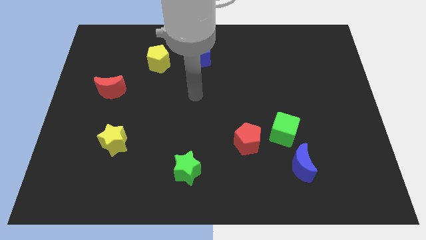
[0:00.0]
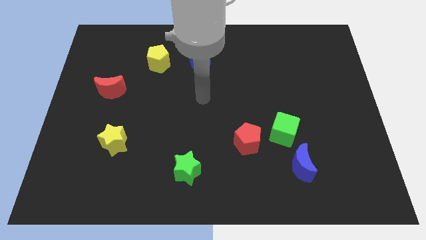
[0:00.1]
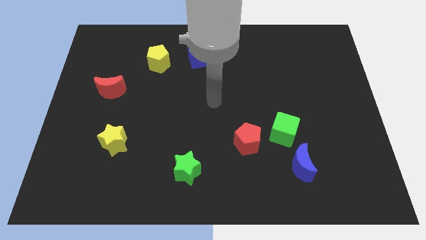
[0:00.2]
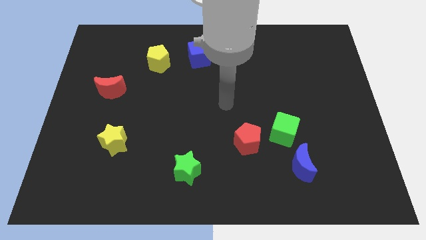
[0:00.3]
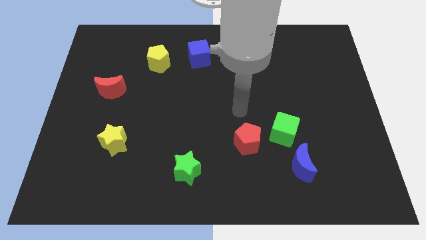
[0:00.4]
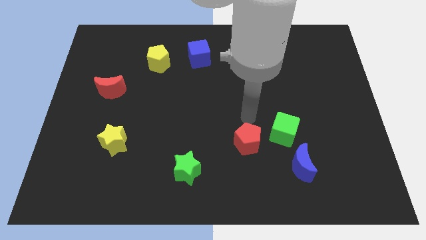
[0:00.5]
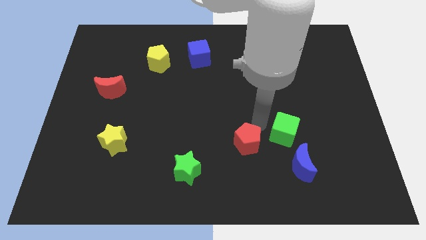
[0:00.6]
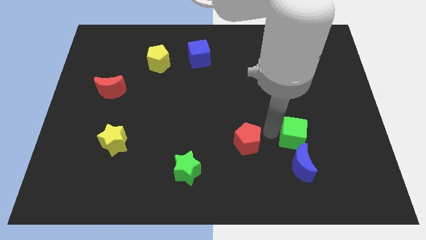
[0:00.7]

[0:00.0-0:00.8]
pull the red pentagon apart from the green cube

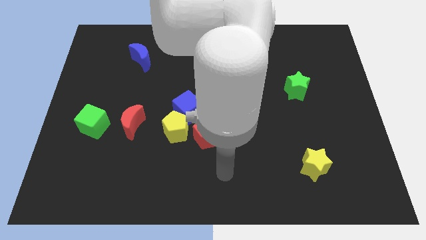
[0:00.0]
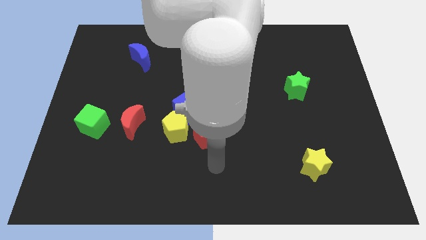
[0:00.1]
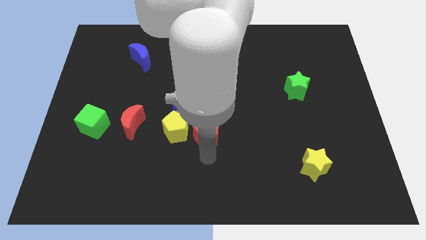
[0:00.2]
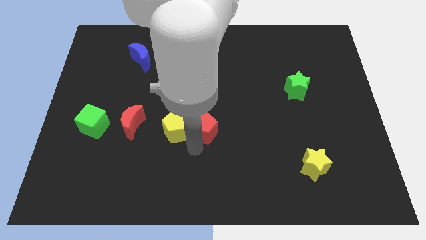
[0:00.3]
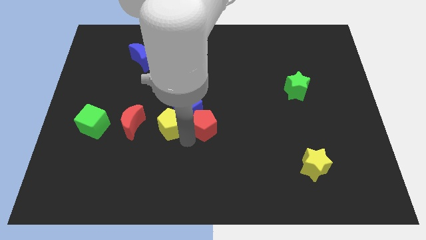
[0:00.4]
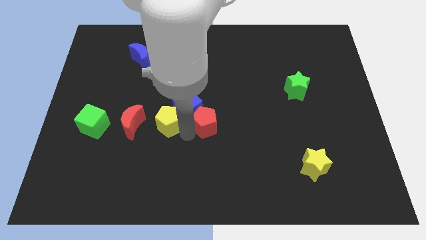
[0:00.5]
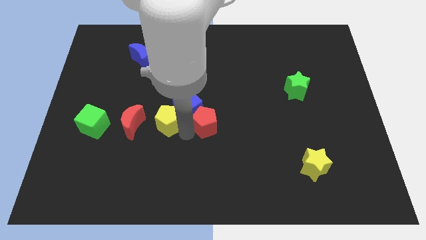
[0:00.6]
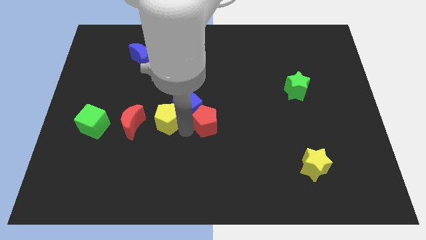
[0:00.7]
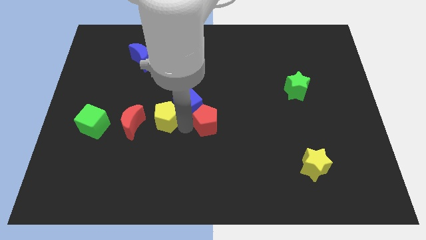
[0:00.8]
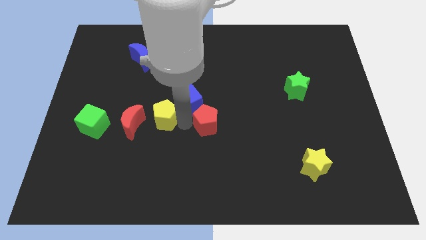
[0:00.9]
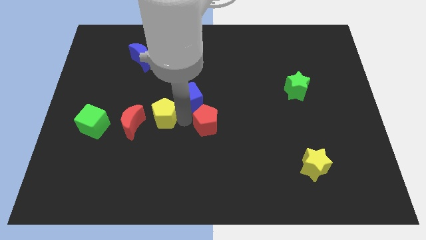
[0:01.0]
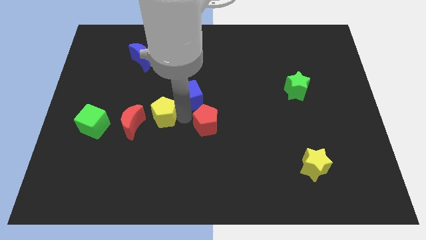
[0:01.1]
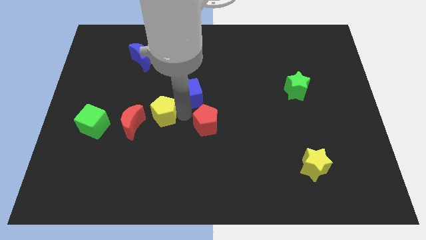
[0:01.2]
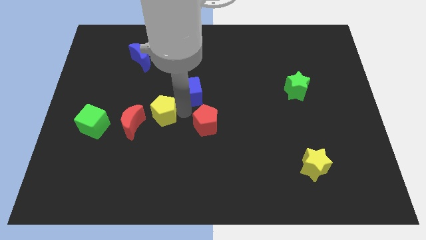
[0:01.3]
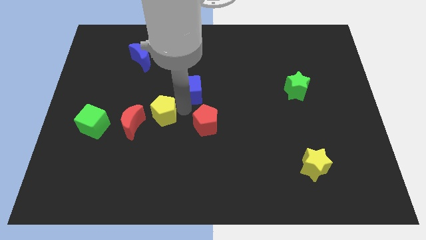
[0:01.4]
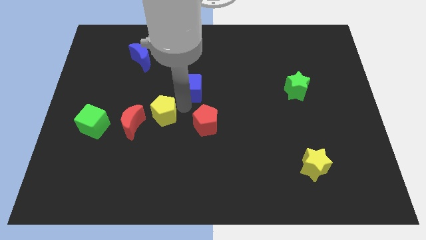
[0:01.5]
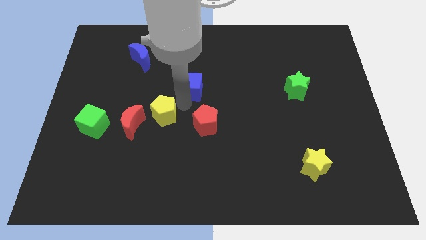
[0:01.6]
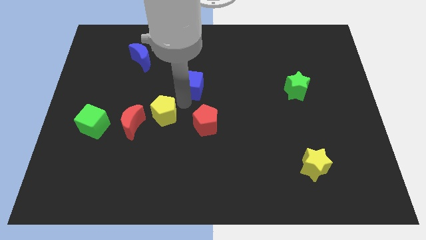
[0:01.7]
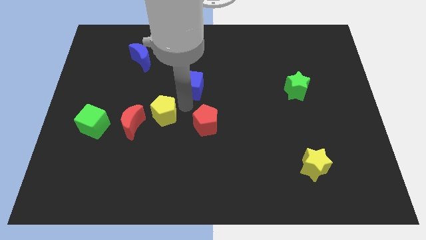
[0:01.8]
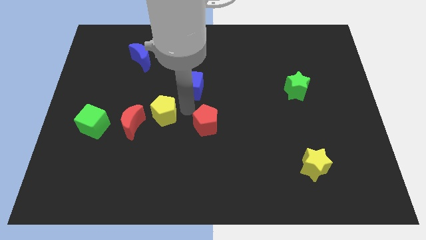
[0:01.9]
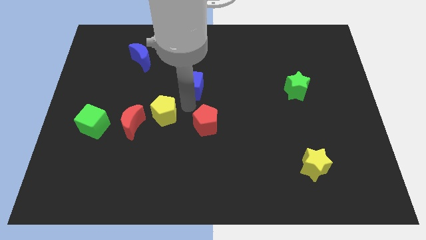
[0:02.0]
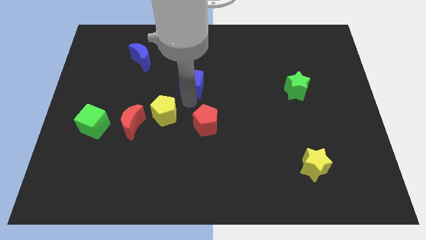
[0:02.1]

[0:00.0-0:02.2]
move the blue cube away from the yellow pentagon and red pentagon

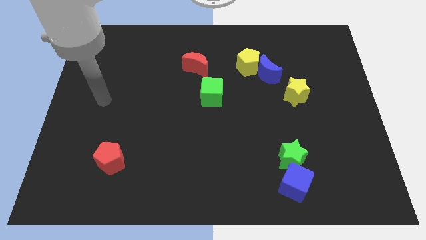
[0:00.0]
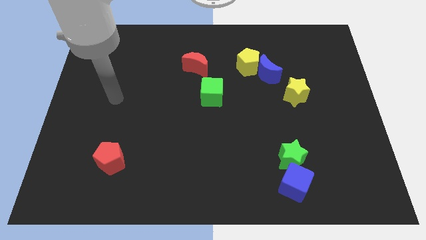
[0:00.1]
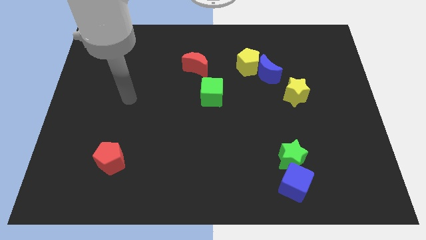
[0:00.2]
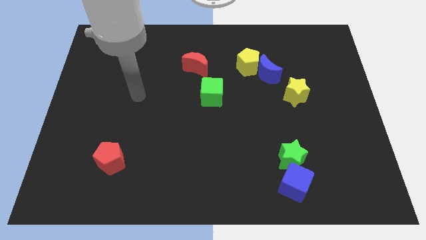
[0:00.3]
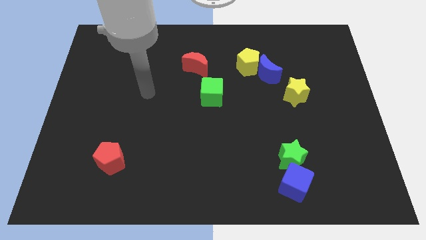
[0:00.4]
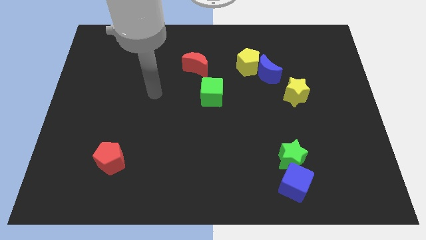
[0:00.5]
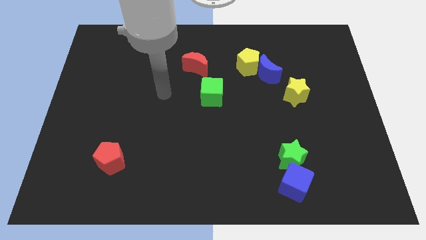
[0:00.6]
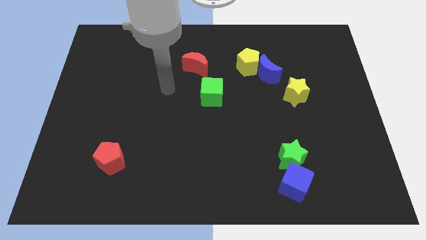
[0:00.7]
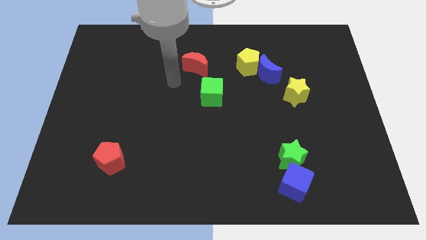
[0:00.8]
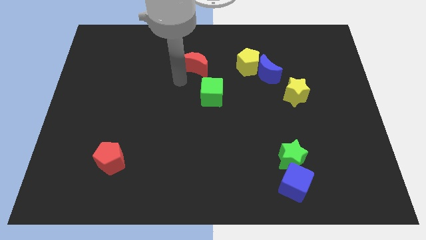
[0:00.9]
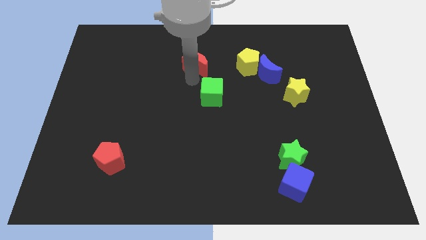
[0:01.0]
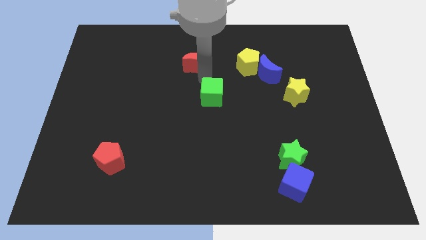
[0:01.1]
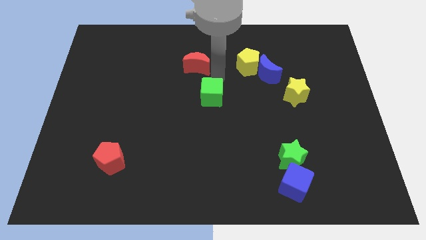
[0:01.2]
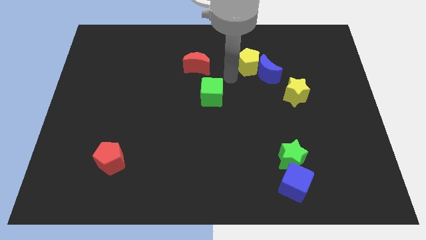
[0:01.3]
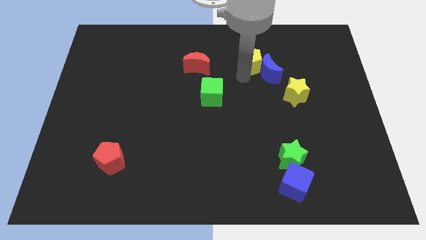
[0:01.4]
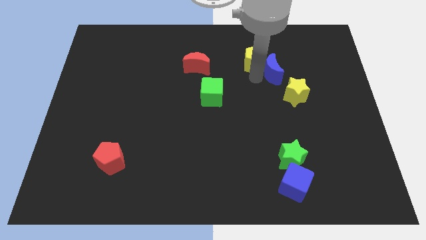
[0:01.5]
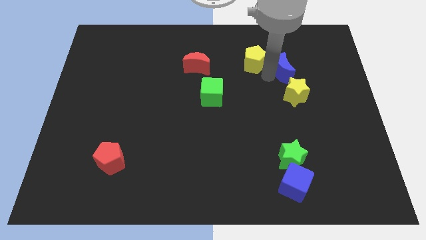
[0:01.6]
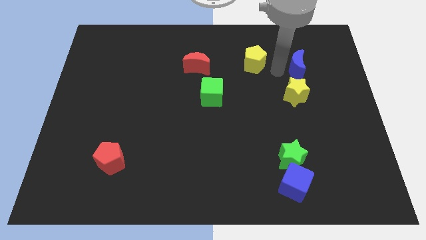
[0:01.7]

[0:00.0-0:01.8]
pull the yellow pentagon apart from the blue moon

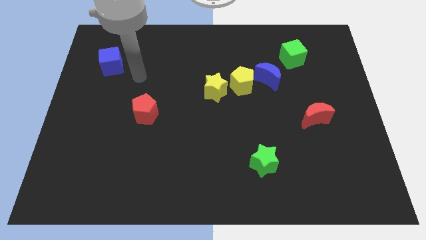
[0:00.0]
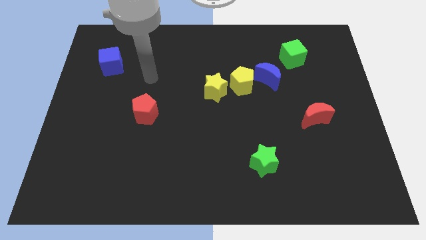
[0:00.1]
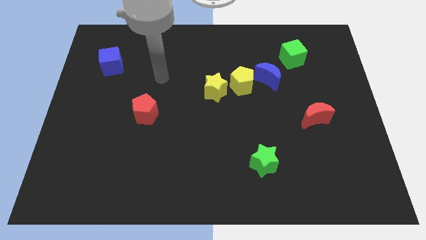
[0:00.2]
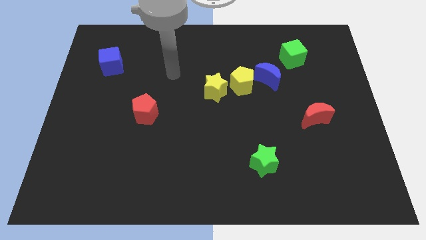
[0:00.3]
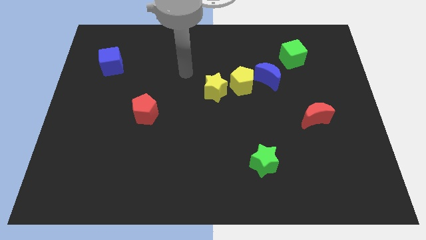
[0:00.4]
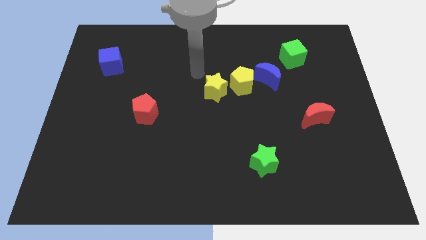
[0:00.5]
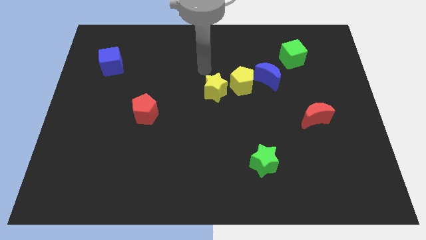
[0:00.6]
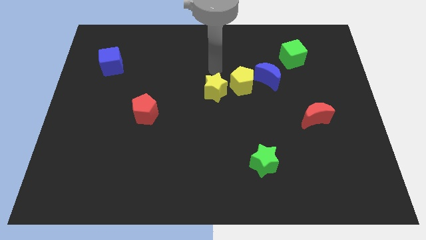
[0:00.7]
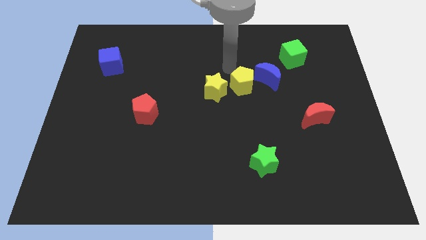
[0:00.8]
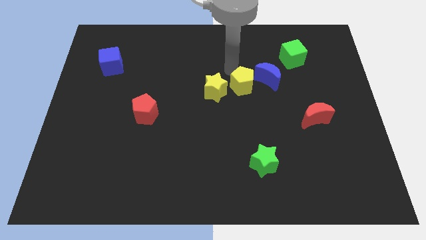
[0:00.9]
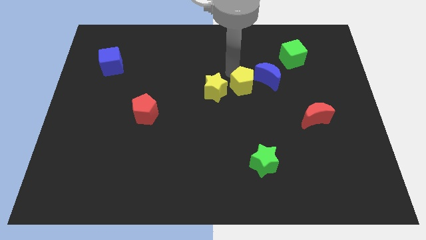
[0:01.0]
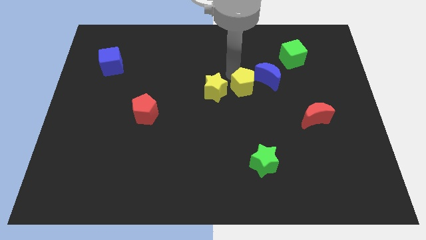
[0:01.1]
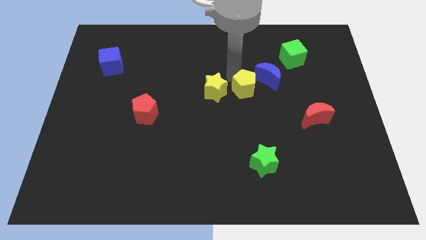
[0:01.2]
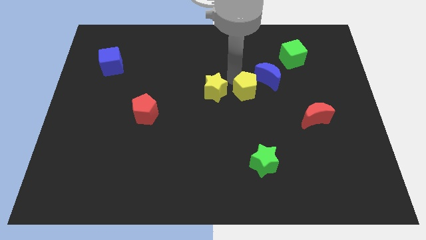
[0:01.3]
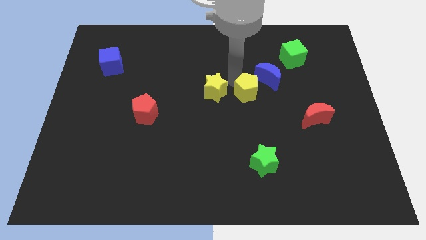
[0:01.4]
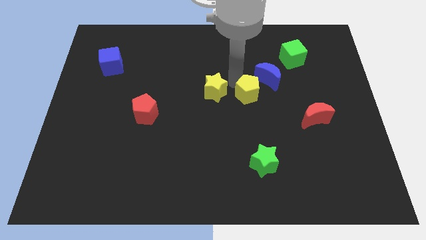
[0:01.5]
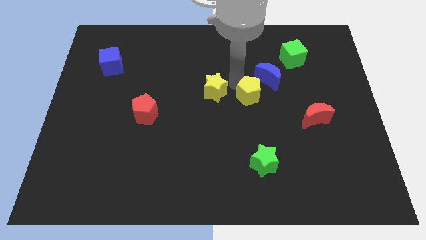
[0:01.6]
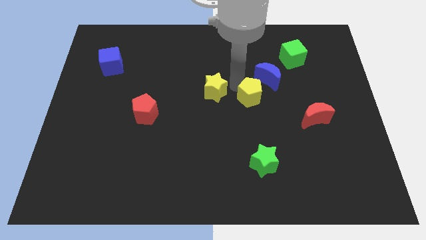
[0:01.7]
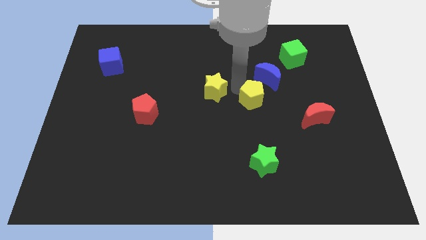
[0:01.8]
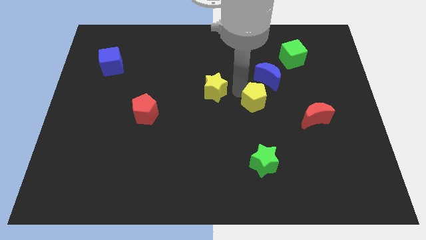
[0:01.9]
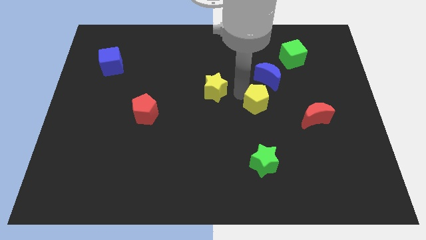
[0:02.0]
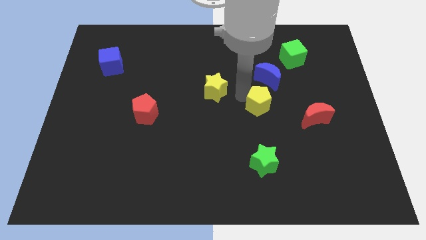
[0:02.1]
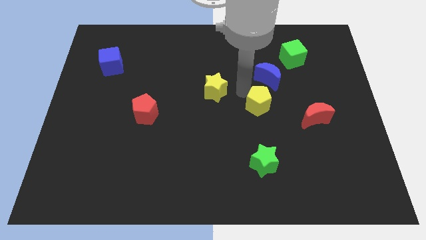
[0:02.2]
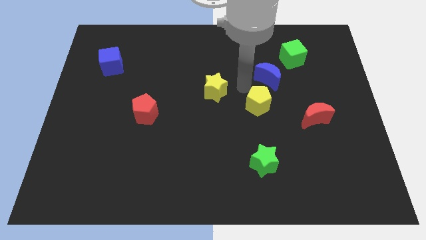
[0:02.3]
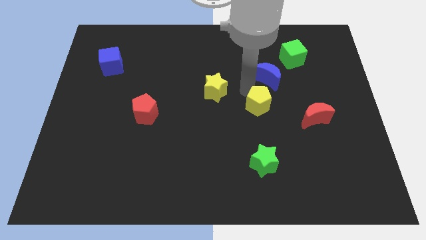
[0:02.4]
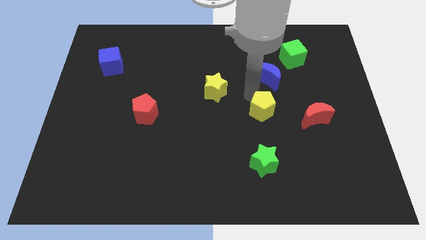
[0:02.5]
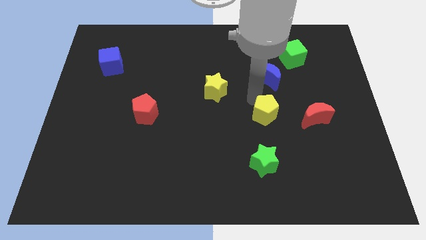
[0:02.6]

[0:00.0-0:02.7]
pull the yellow pentagon apart from the blue moon and yellow star

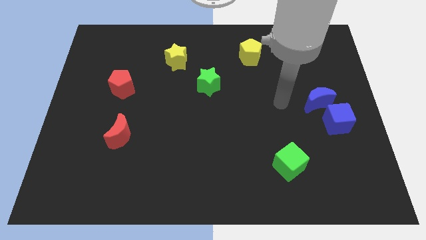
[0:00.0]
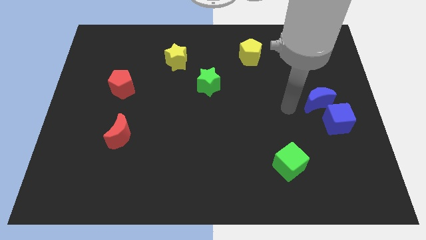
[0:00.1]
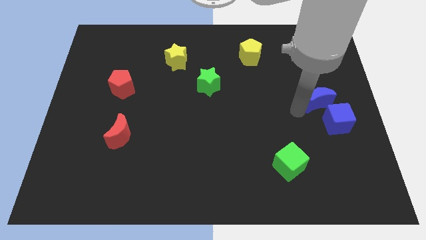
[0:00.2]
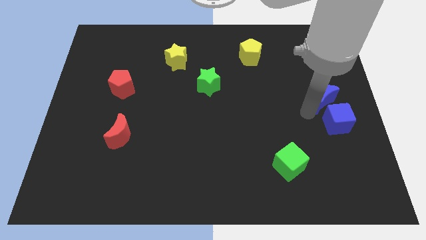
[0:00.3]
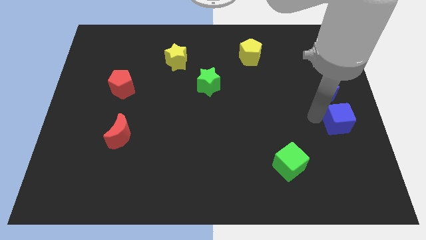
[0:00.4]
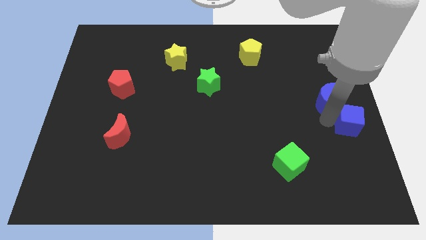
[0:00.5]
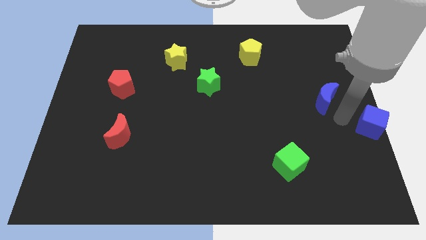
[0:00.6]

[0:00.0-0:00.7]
pull the blue moon apart from the blue cube

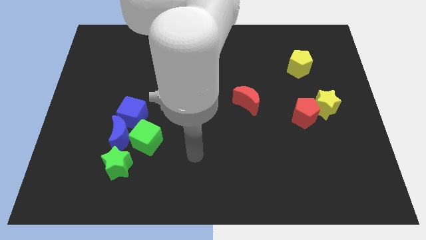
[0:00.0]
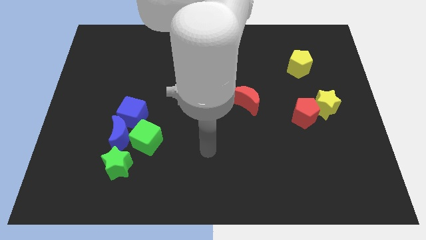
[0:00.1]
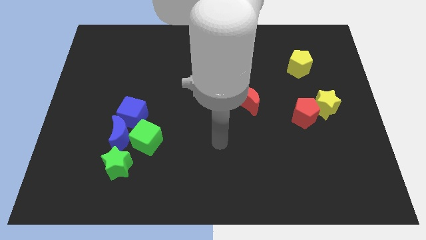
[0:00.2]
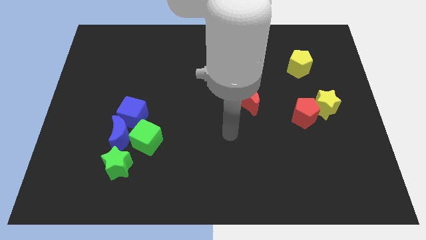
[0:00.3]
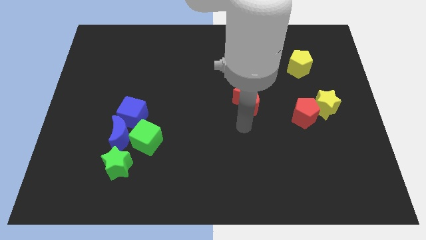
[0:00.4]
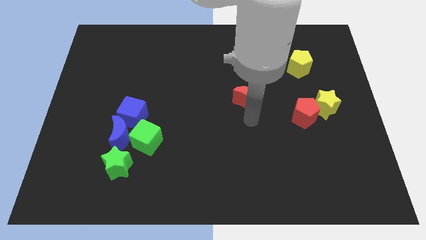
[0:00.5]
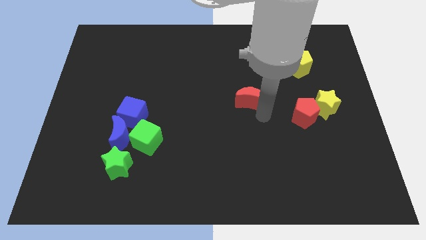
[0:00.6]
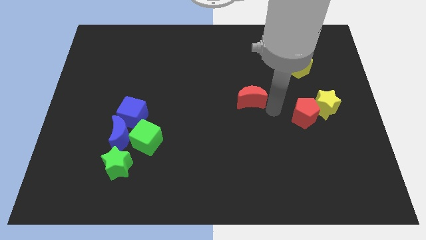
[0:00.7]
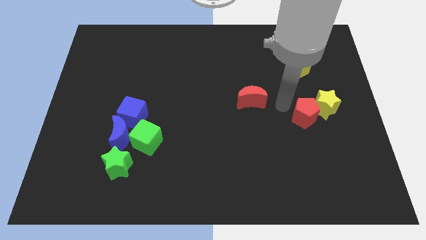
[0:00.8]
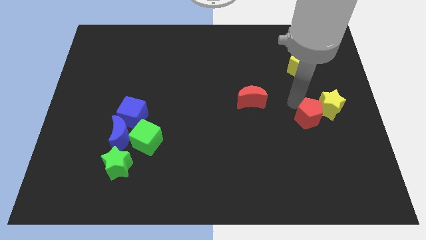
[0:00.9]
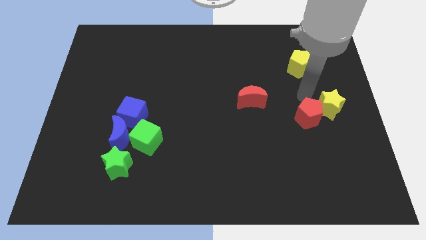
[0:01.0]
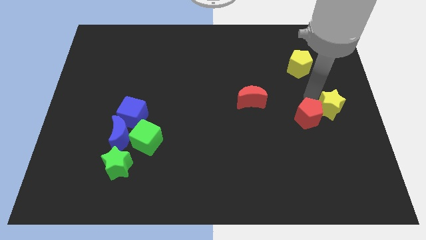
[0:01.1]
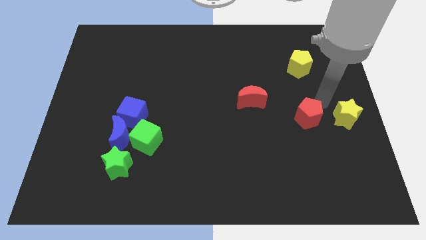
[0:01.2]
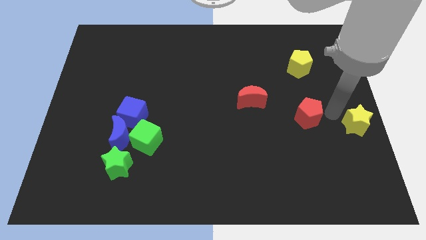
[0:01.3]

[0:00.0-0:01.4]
move the red pentagon away from the yellow star
